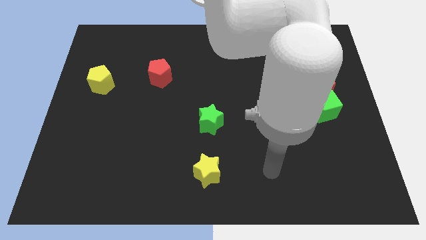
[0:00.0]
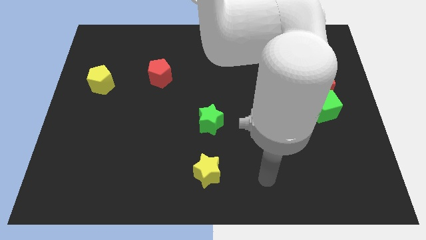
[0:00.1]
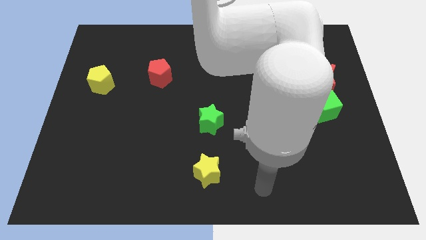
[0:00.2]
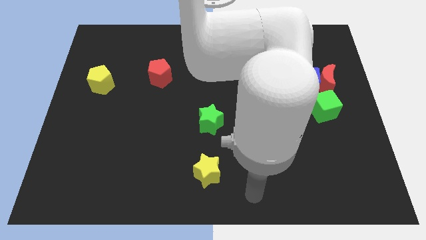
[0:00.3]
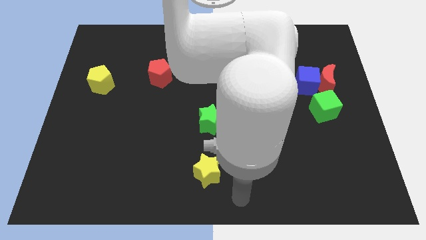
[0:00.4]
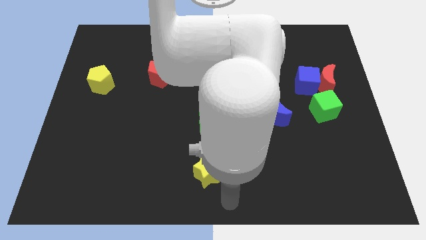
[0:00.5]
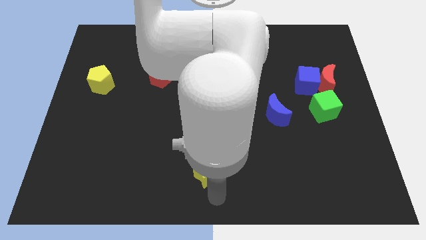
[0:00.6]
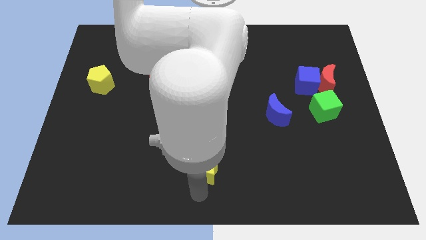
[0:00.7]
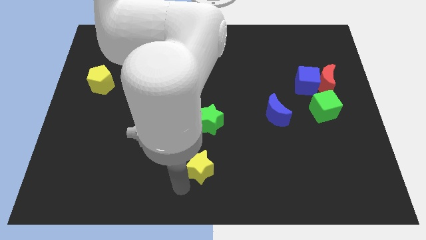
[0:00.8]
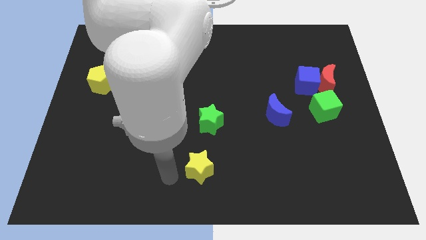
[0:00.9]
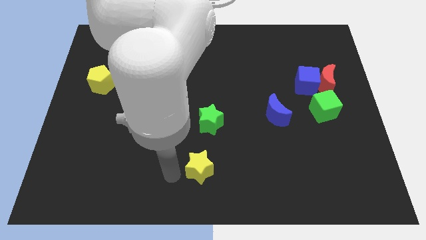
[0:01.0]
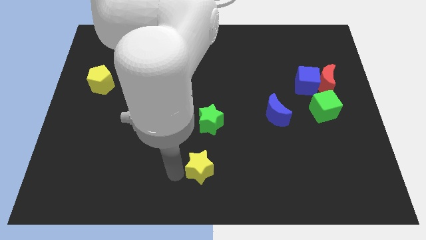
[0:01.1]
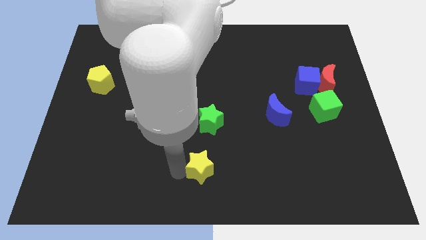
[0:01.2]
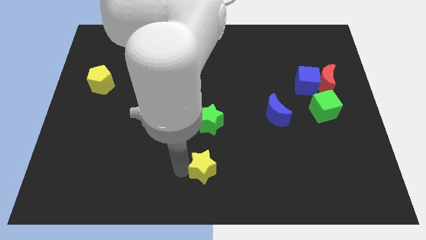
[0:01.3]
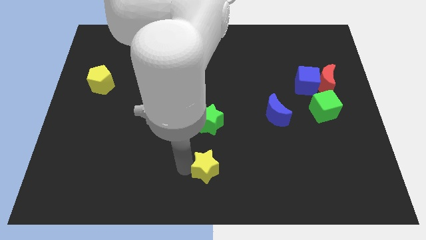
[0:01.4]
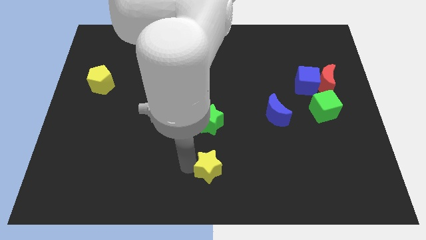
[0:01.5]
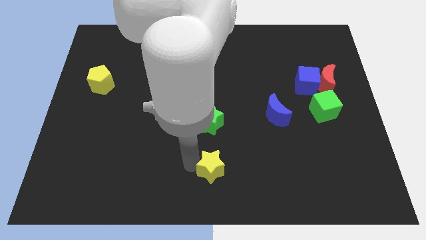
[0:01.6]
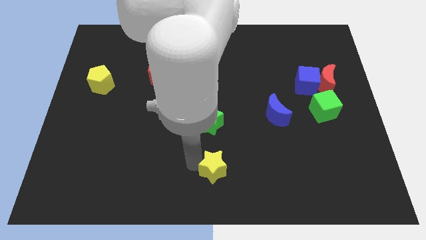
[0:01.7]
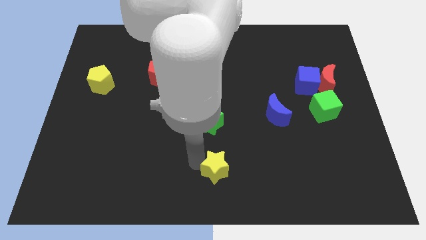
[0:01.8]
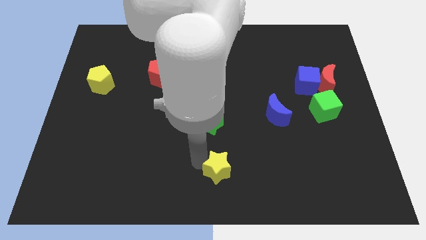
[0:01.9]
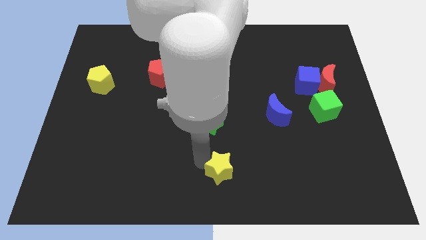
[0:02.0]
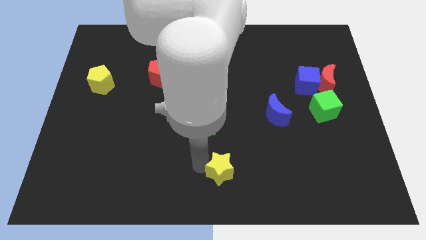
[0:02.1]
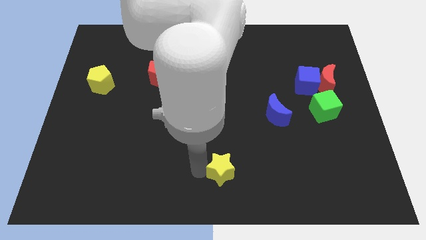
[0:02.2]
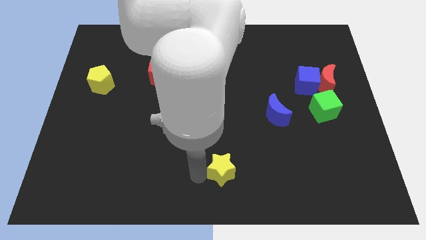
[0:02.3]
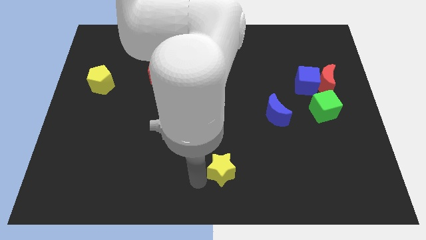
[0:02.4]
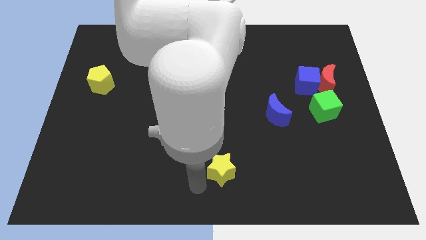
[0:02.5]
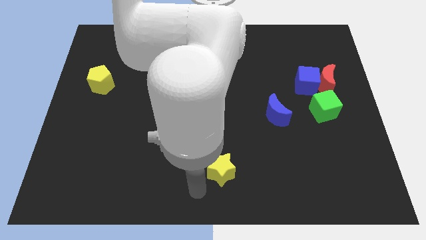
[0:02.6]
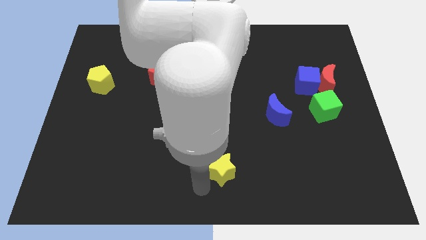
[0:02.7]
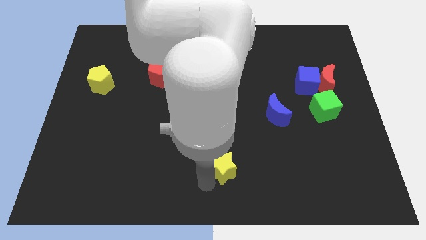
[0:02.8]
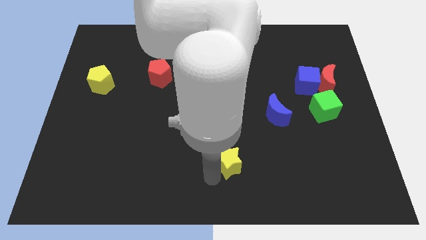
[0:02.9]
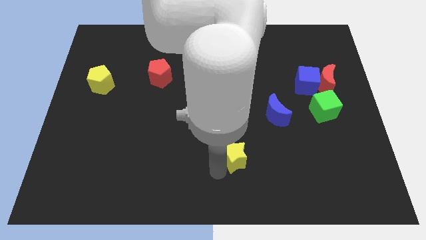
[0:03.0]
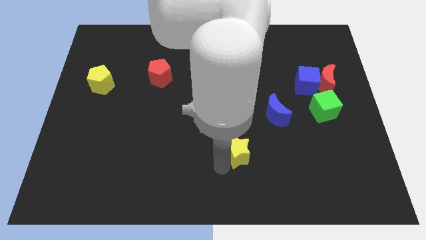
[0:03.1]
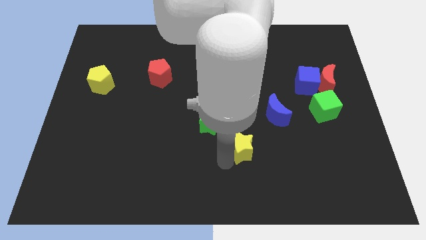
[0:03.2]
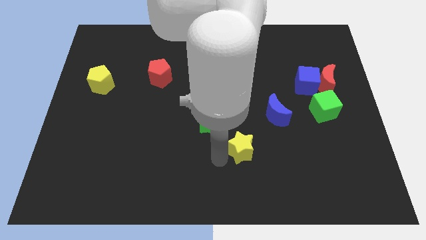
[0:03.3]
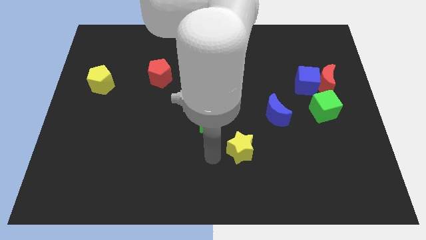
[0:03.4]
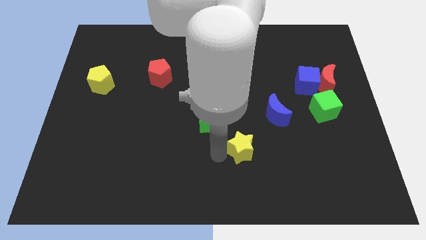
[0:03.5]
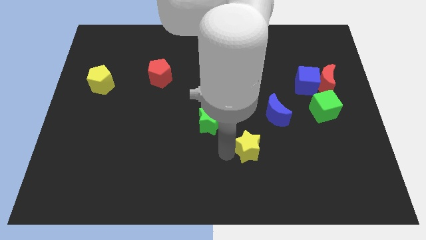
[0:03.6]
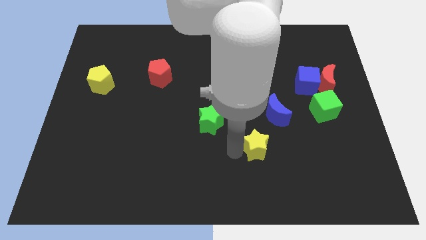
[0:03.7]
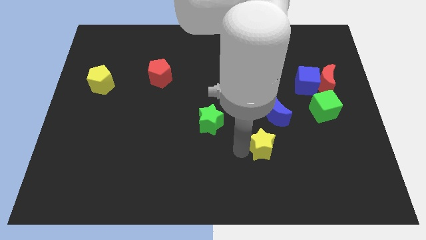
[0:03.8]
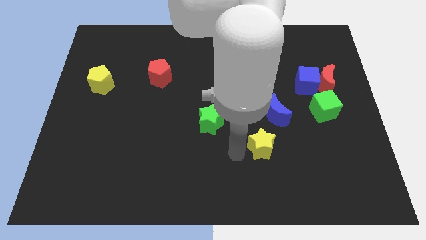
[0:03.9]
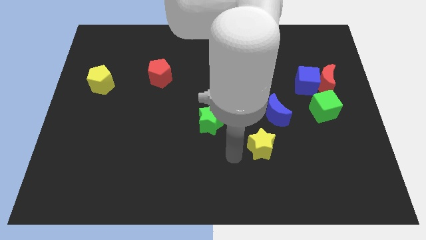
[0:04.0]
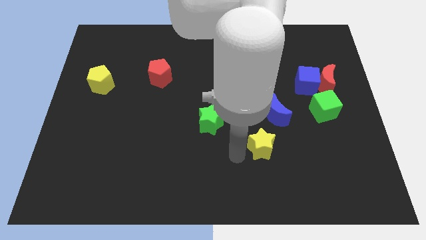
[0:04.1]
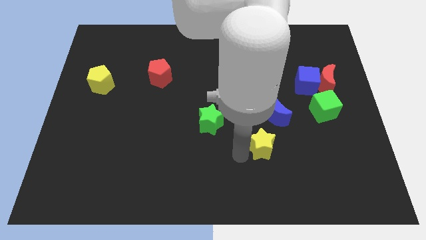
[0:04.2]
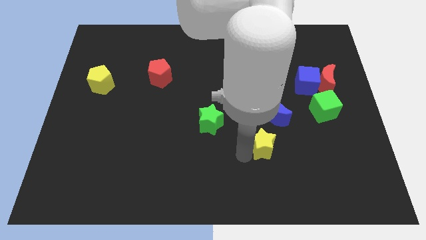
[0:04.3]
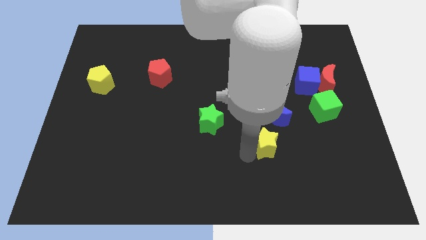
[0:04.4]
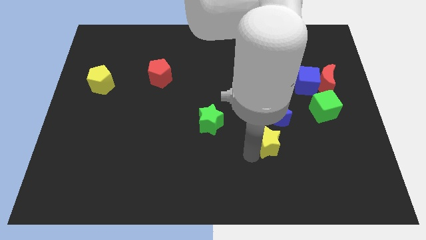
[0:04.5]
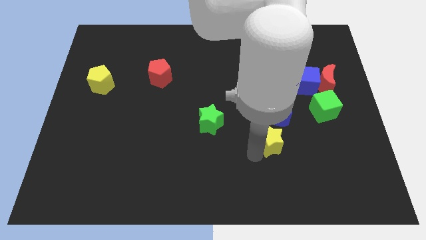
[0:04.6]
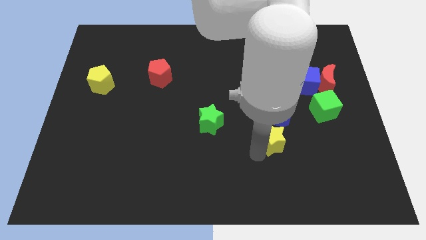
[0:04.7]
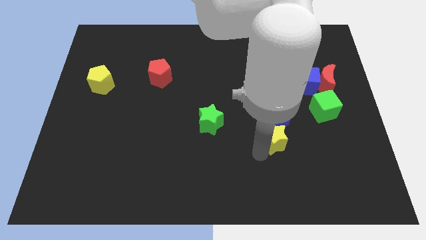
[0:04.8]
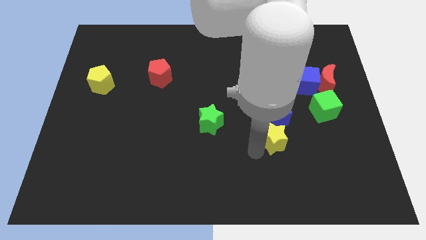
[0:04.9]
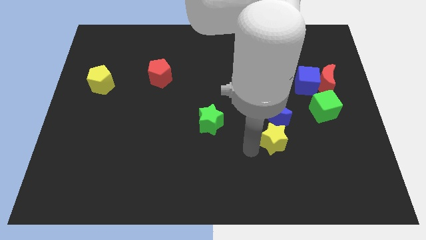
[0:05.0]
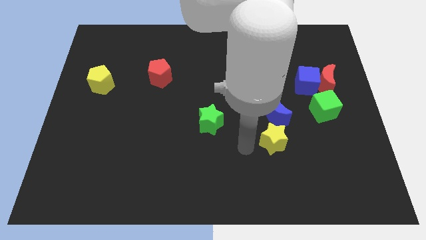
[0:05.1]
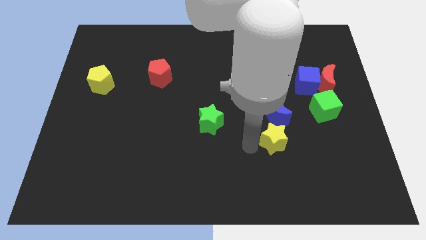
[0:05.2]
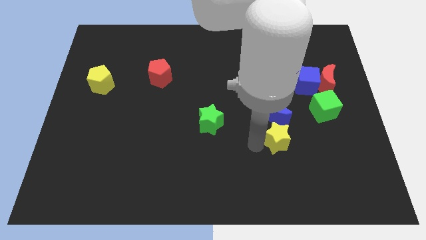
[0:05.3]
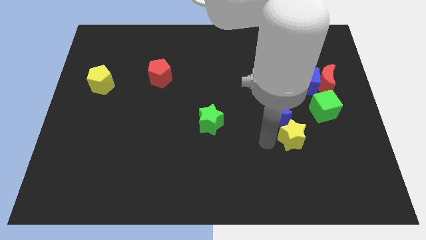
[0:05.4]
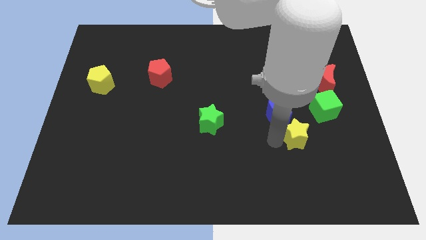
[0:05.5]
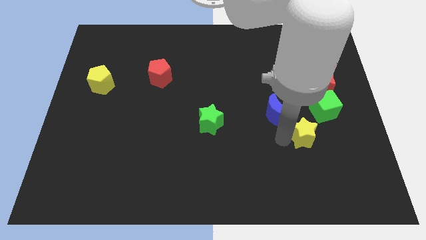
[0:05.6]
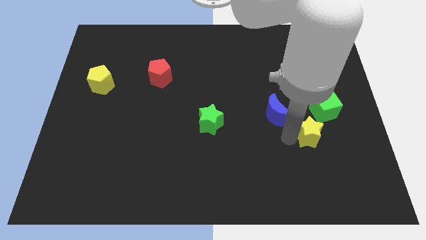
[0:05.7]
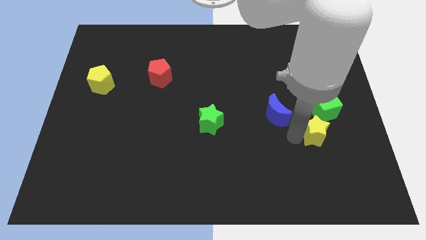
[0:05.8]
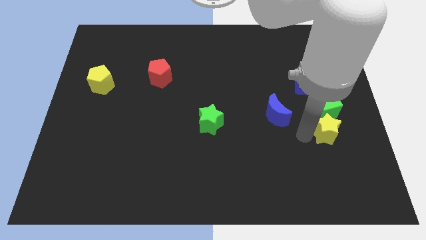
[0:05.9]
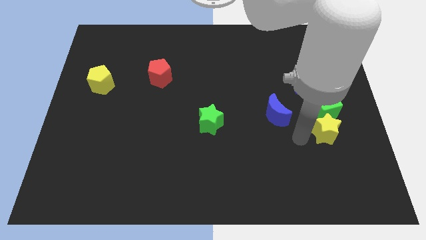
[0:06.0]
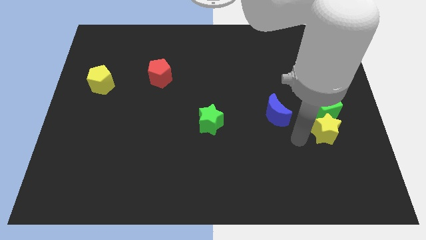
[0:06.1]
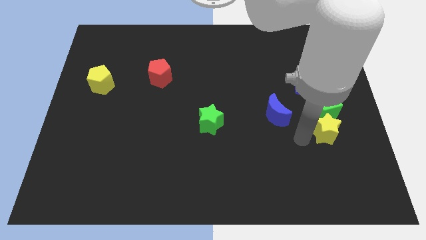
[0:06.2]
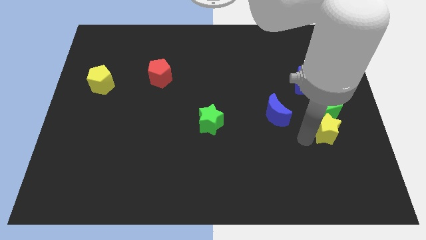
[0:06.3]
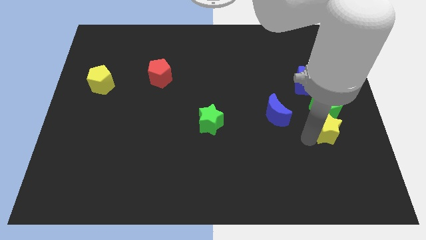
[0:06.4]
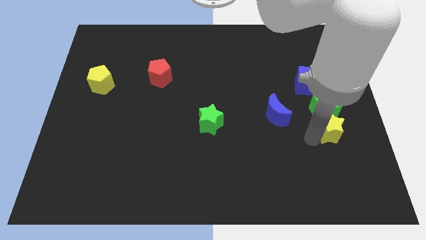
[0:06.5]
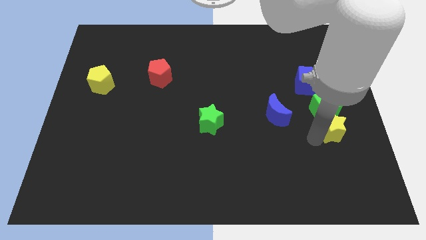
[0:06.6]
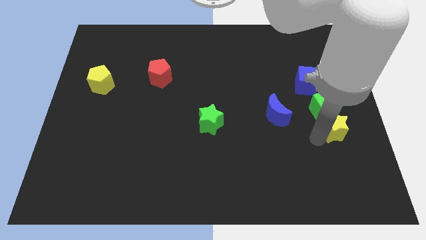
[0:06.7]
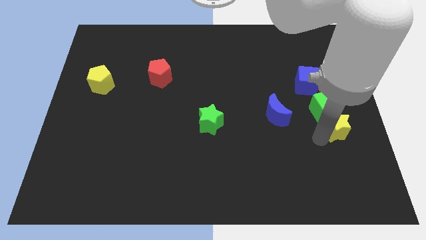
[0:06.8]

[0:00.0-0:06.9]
slide the yellow star to the right side

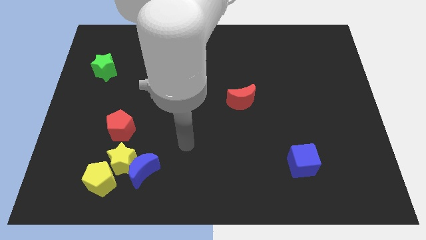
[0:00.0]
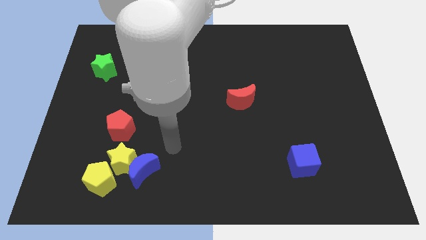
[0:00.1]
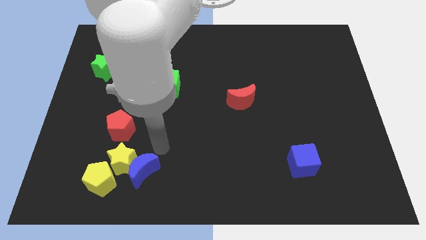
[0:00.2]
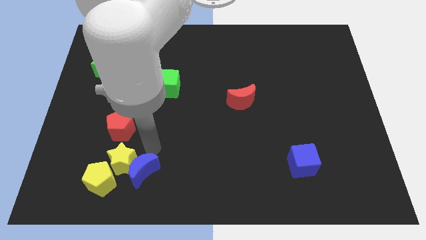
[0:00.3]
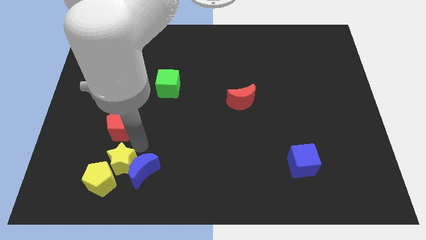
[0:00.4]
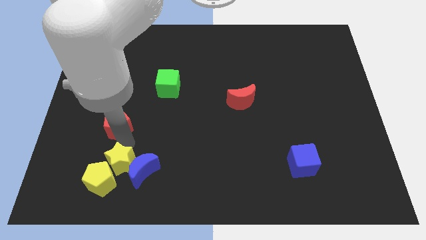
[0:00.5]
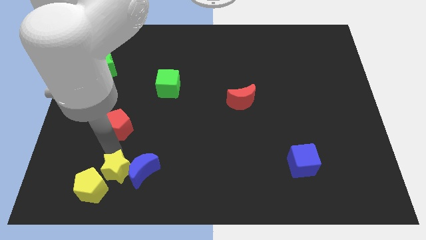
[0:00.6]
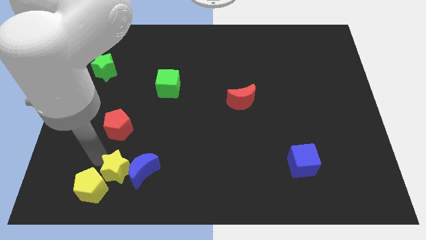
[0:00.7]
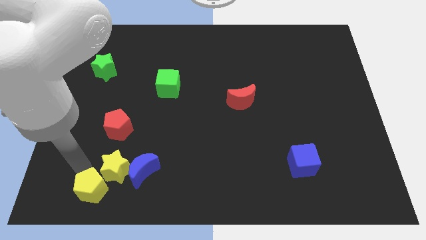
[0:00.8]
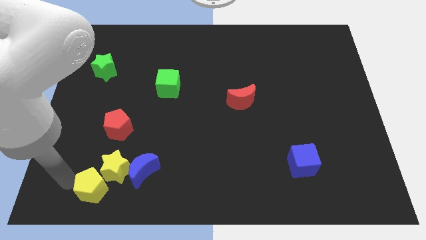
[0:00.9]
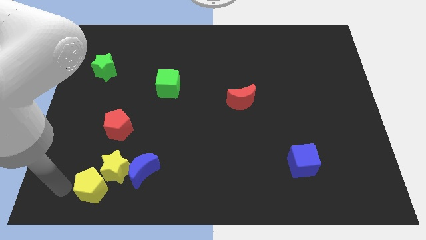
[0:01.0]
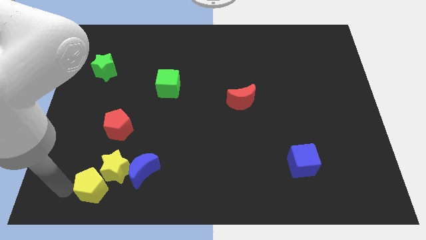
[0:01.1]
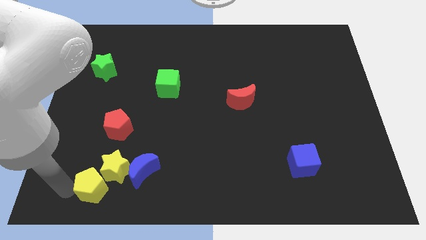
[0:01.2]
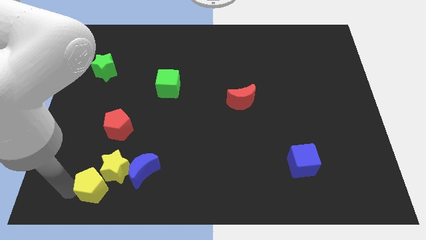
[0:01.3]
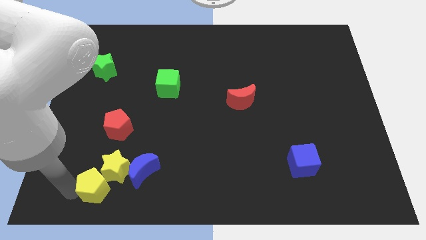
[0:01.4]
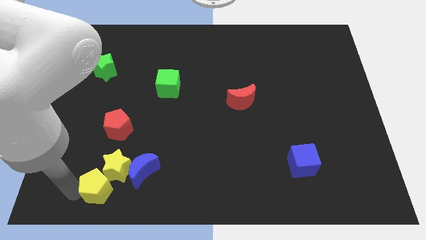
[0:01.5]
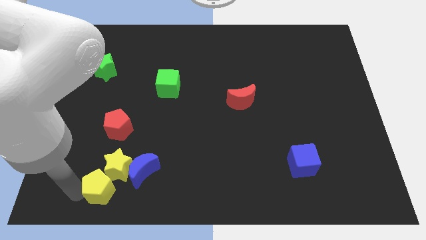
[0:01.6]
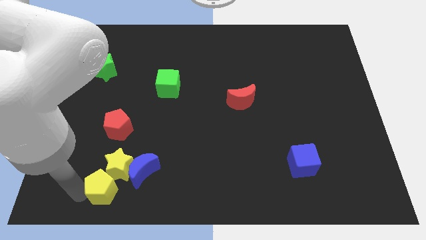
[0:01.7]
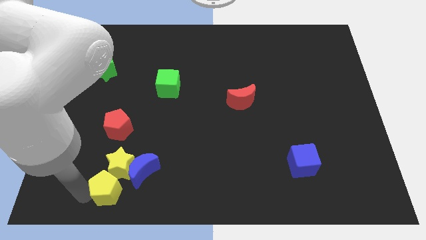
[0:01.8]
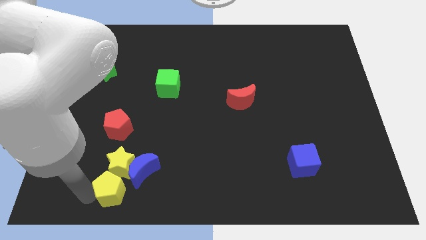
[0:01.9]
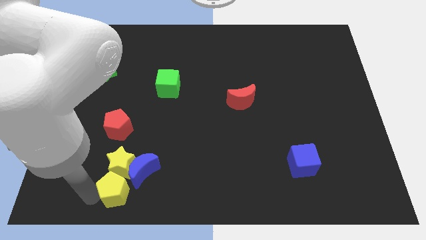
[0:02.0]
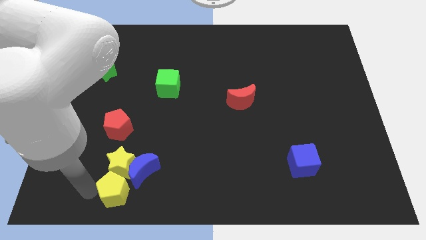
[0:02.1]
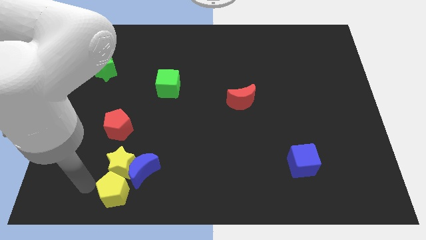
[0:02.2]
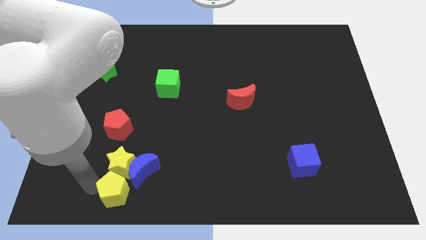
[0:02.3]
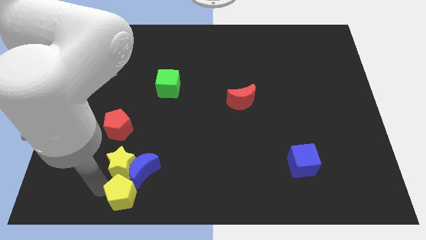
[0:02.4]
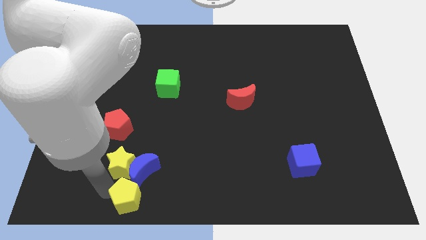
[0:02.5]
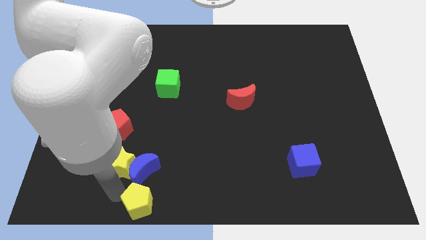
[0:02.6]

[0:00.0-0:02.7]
slide the yellow pentagon to the bottom side
